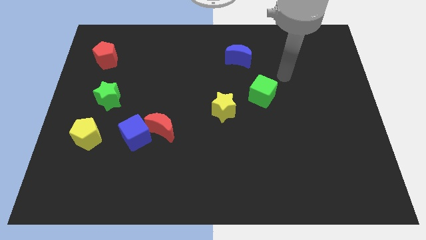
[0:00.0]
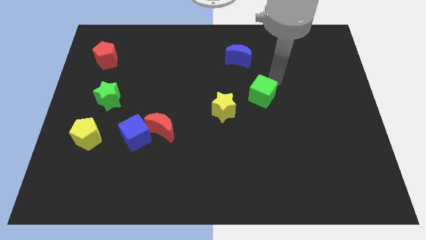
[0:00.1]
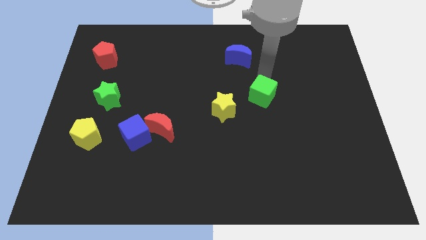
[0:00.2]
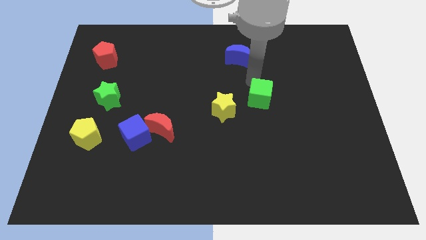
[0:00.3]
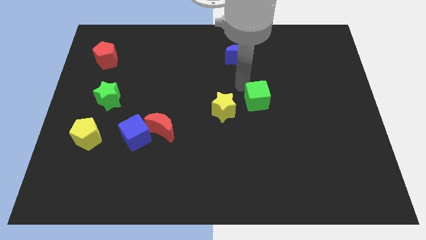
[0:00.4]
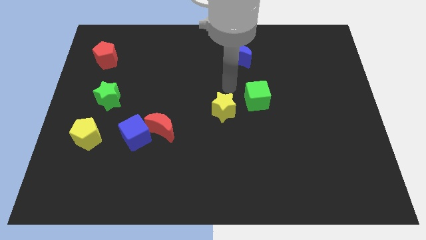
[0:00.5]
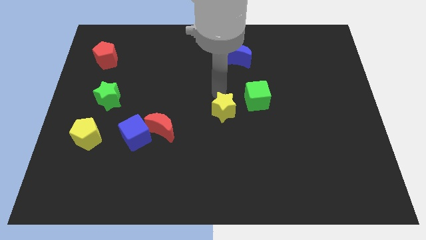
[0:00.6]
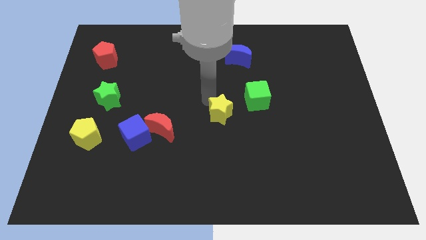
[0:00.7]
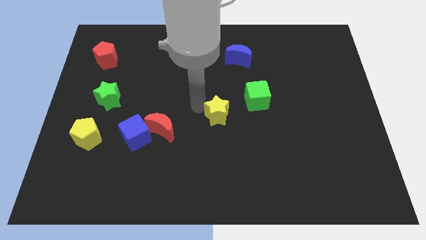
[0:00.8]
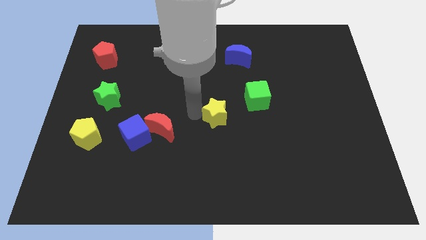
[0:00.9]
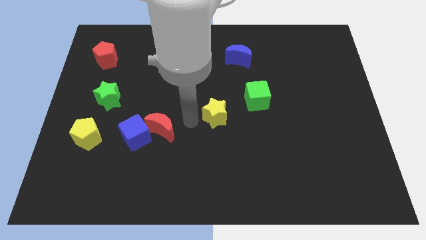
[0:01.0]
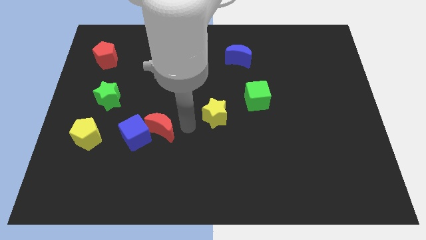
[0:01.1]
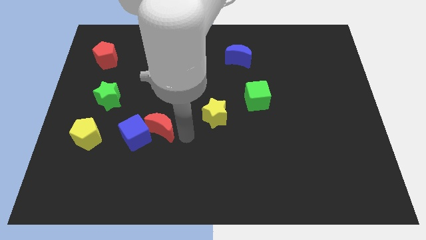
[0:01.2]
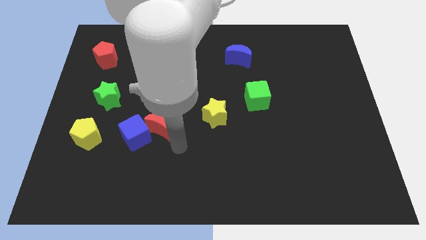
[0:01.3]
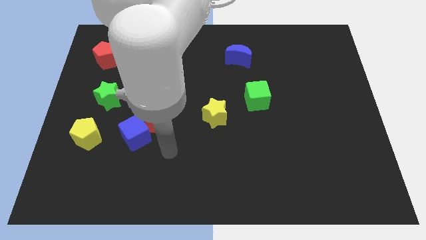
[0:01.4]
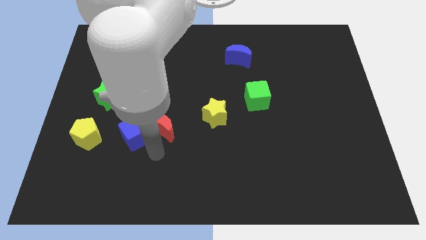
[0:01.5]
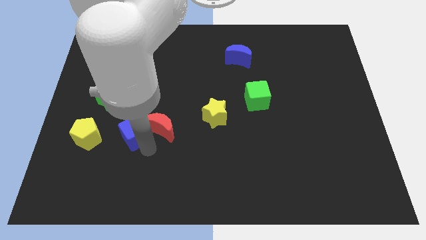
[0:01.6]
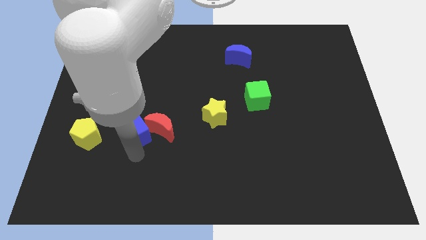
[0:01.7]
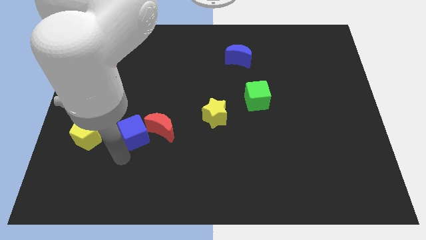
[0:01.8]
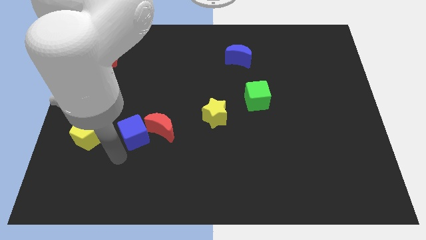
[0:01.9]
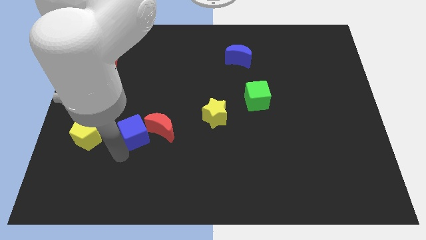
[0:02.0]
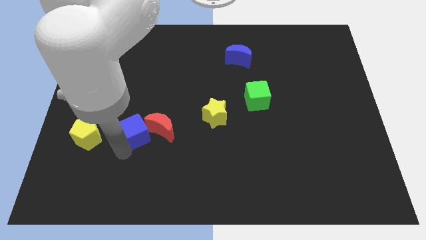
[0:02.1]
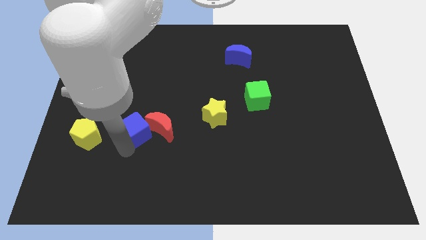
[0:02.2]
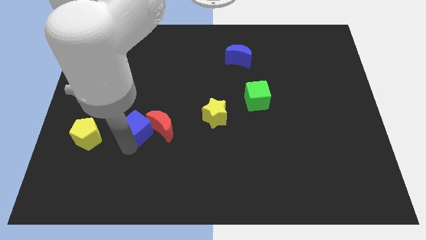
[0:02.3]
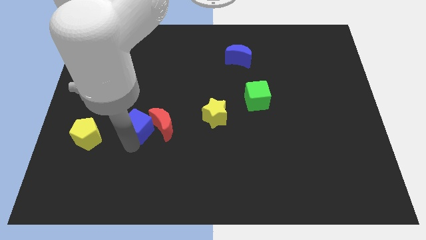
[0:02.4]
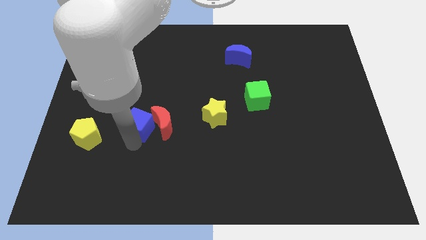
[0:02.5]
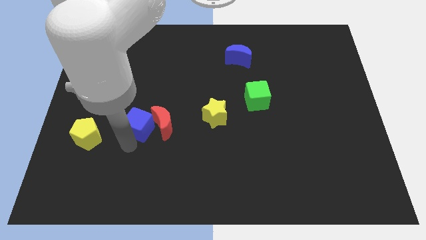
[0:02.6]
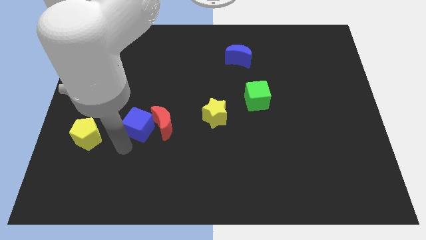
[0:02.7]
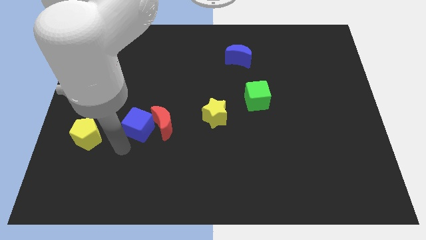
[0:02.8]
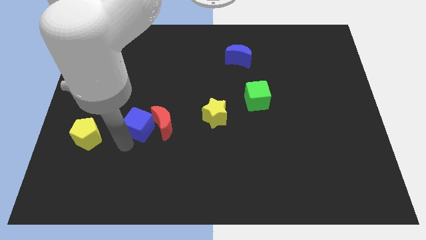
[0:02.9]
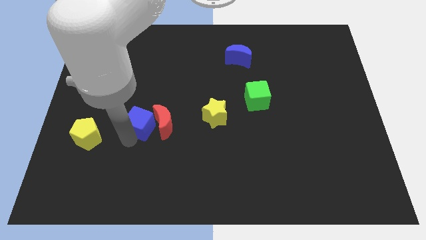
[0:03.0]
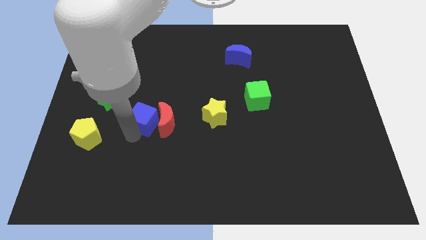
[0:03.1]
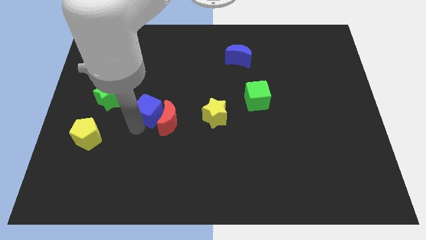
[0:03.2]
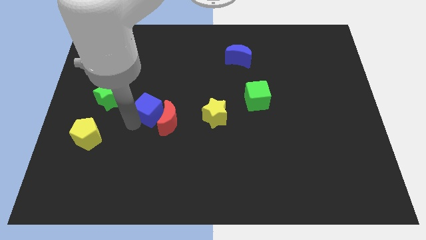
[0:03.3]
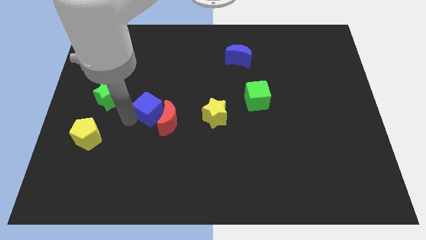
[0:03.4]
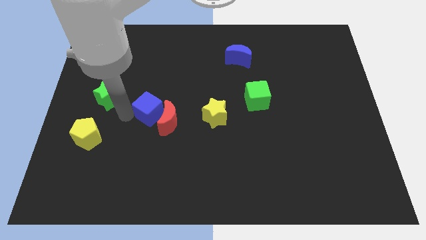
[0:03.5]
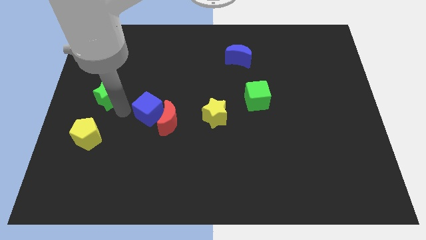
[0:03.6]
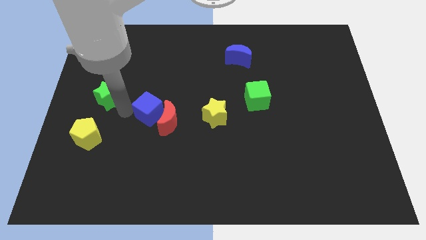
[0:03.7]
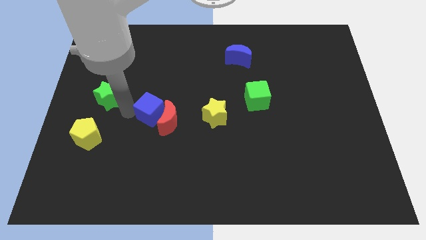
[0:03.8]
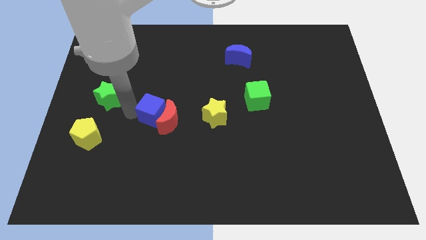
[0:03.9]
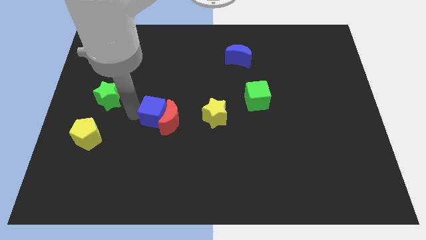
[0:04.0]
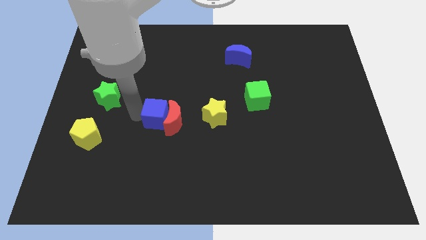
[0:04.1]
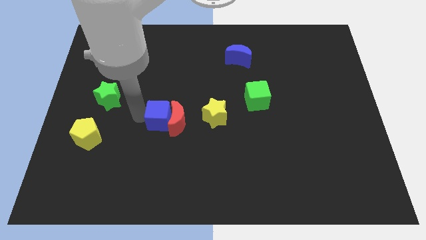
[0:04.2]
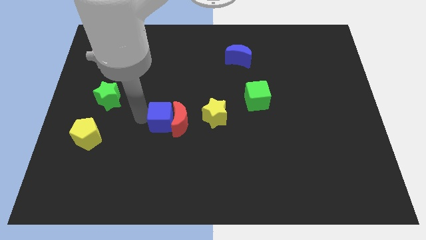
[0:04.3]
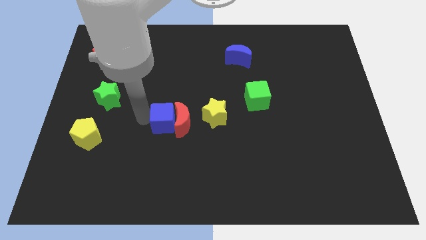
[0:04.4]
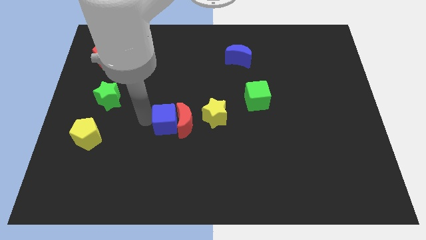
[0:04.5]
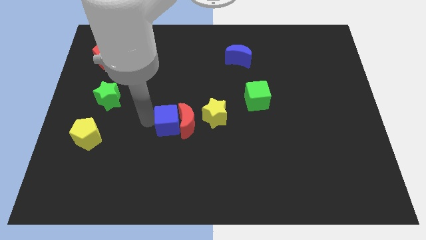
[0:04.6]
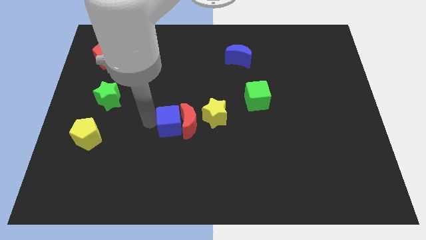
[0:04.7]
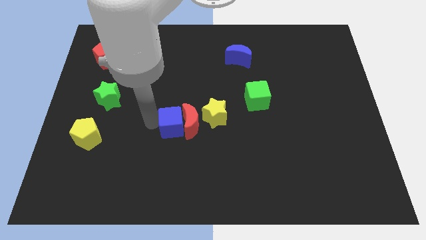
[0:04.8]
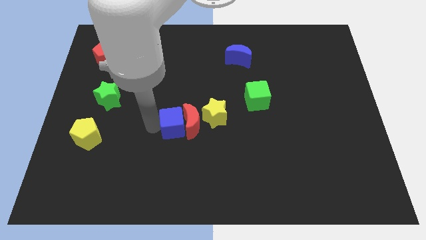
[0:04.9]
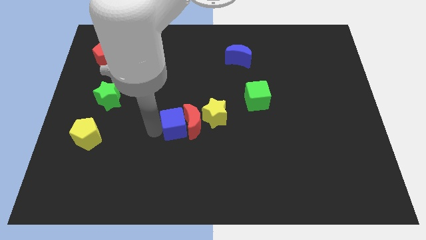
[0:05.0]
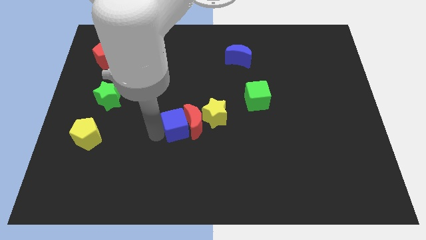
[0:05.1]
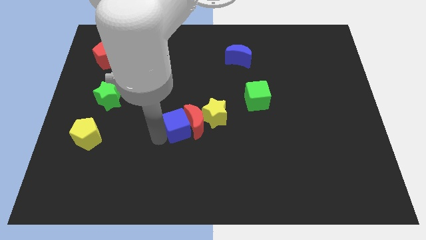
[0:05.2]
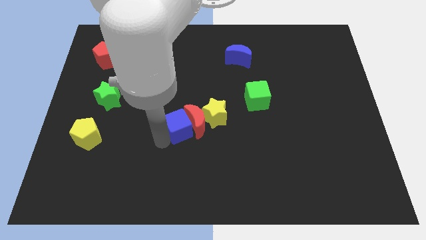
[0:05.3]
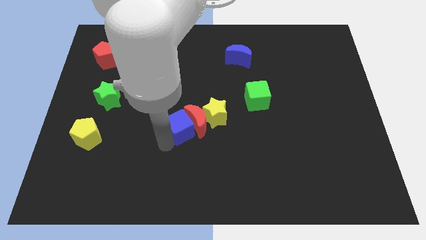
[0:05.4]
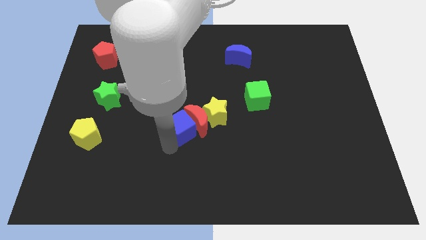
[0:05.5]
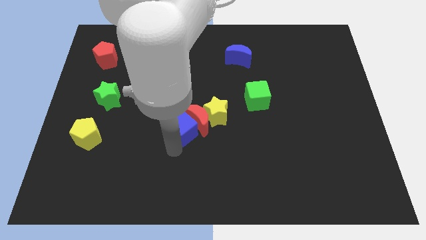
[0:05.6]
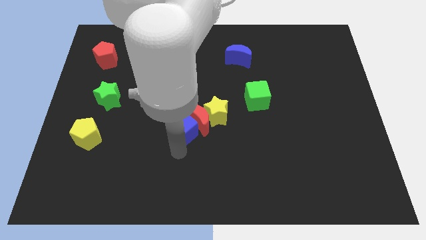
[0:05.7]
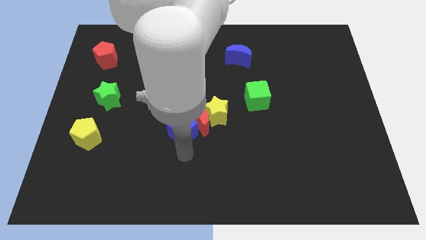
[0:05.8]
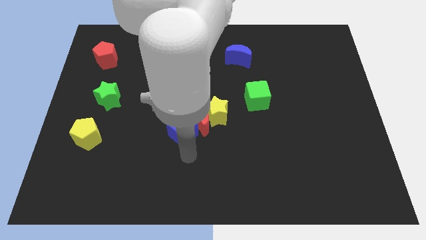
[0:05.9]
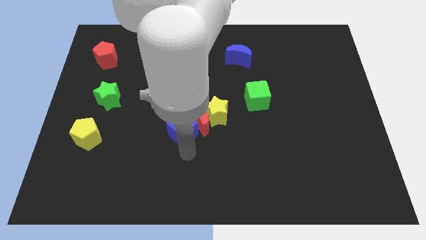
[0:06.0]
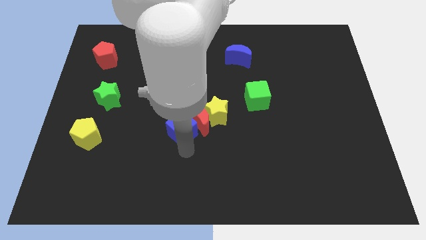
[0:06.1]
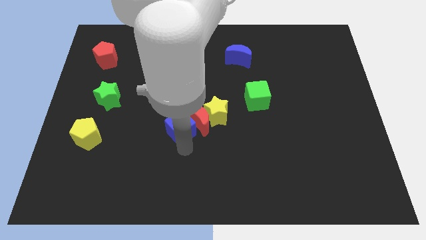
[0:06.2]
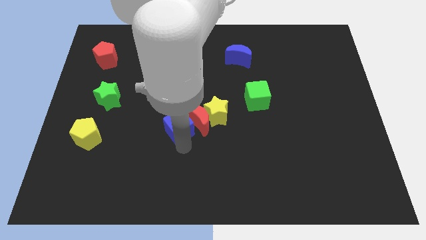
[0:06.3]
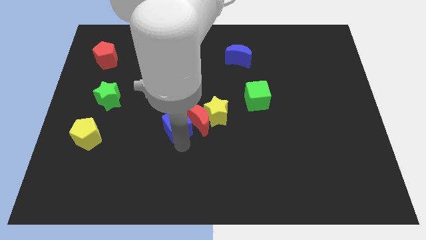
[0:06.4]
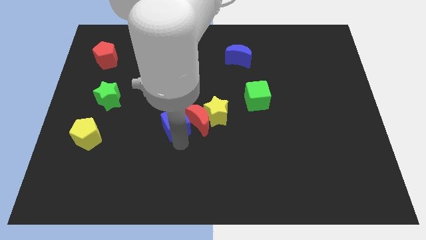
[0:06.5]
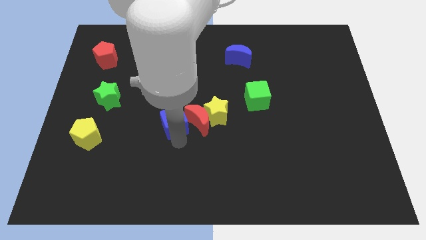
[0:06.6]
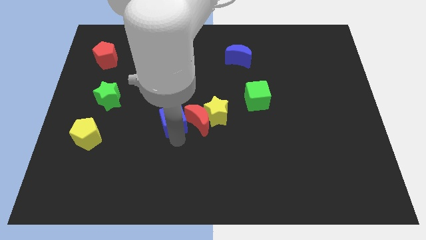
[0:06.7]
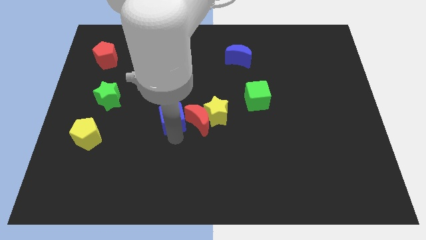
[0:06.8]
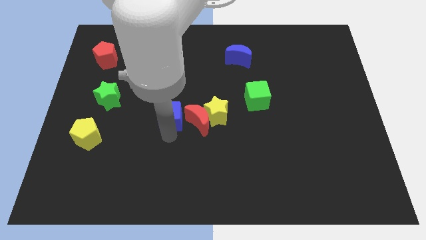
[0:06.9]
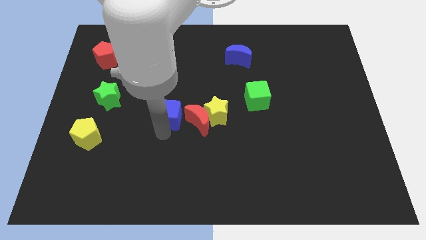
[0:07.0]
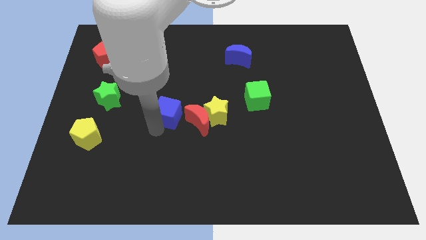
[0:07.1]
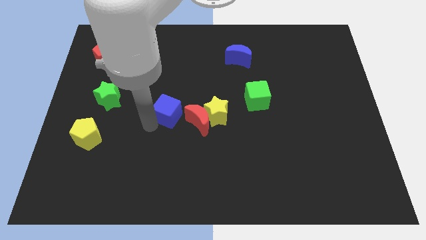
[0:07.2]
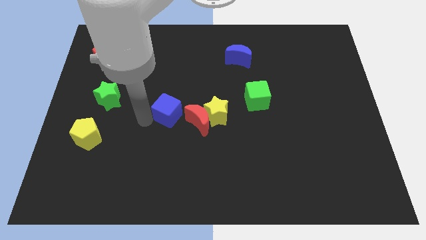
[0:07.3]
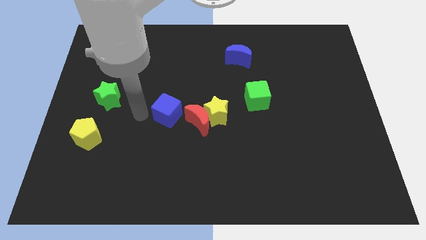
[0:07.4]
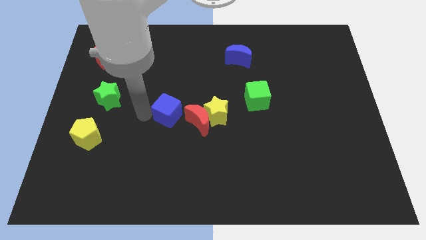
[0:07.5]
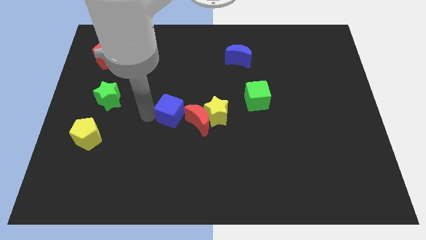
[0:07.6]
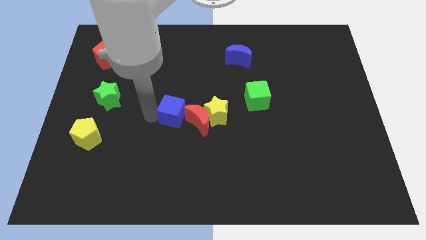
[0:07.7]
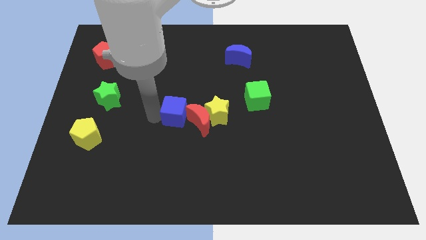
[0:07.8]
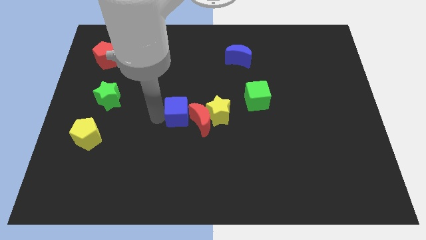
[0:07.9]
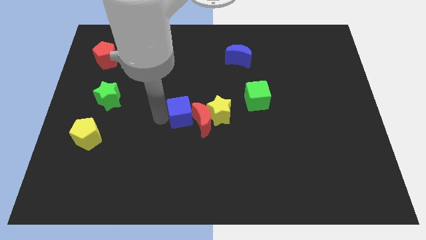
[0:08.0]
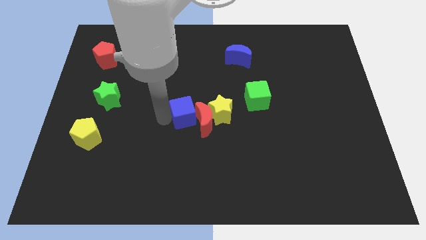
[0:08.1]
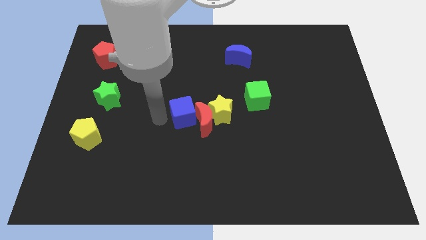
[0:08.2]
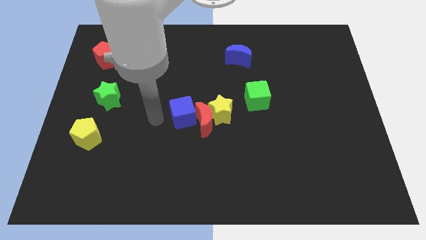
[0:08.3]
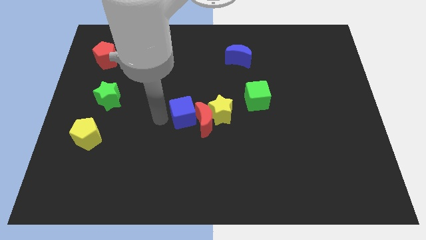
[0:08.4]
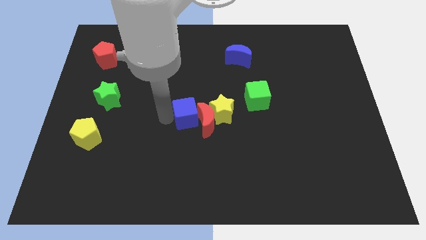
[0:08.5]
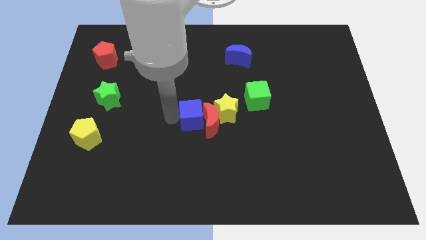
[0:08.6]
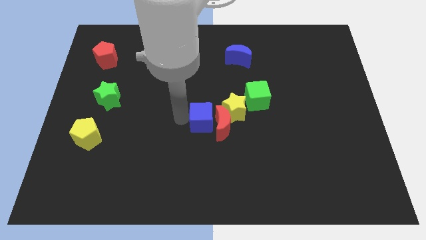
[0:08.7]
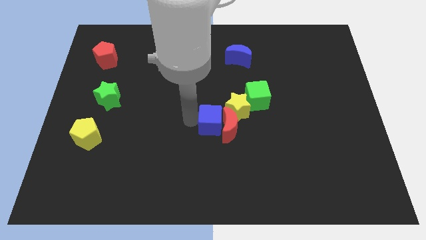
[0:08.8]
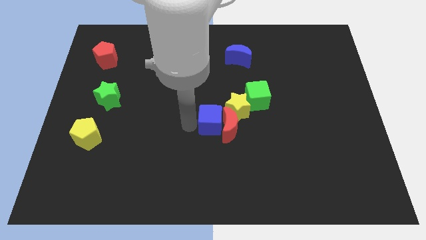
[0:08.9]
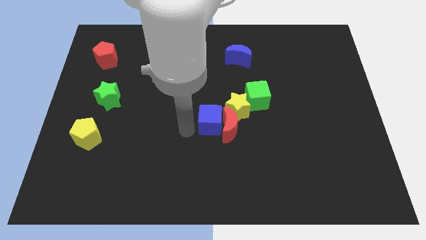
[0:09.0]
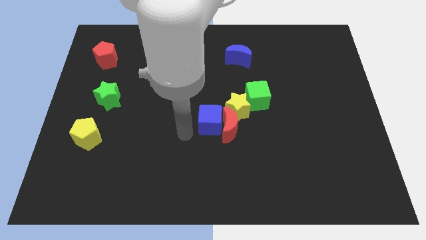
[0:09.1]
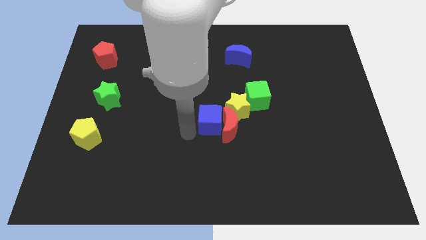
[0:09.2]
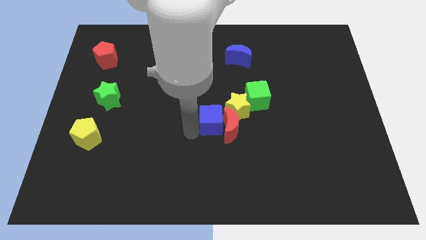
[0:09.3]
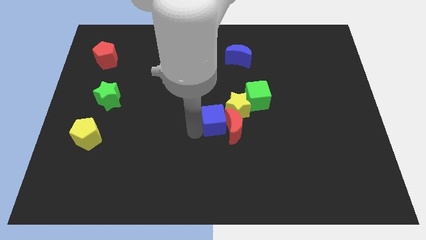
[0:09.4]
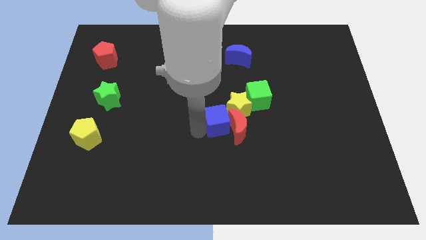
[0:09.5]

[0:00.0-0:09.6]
put the blue cube to the yellow star
